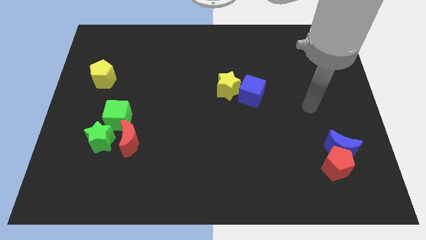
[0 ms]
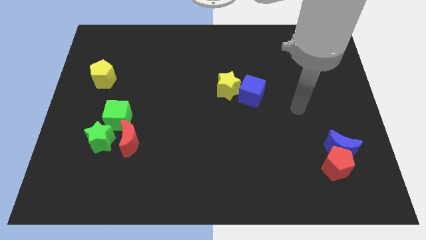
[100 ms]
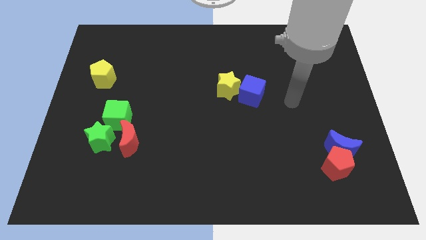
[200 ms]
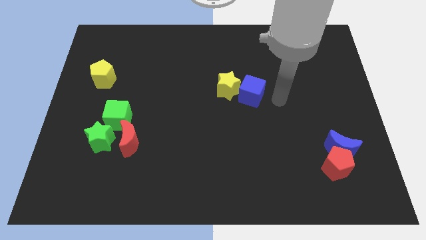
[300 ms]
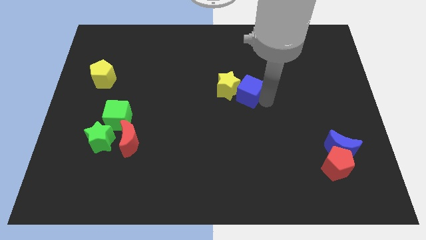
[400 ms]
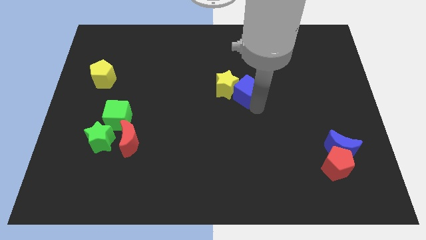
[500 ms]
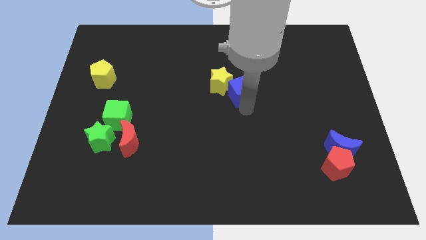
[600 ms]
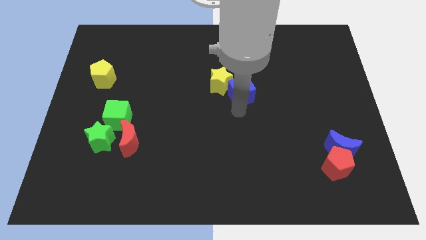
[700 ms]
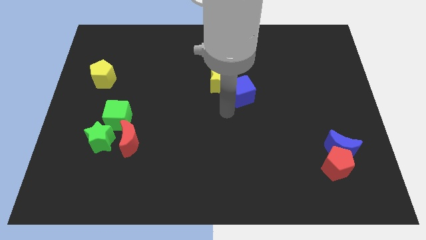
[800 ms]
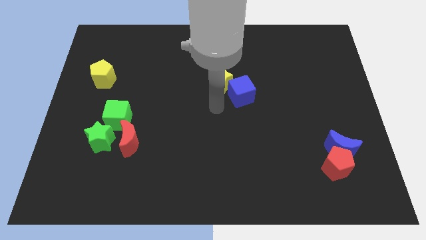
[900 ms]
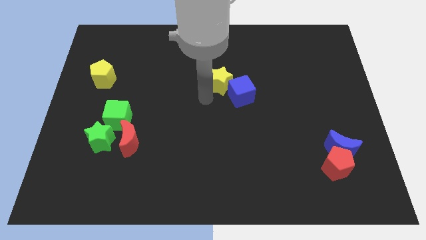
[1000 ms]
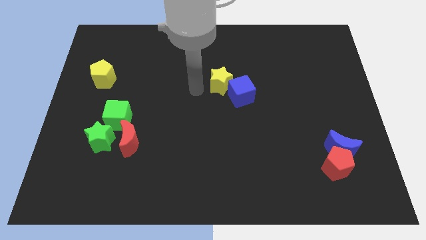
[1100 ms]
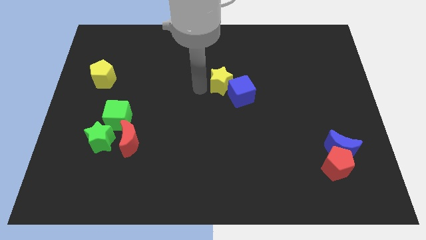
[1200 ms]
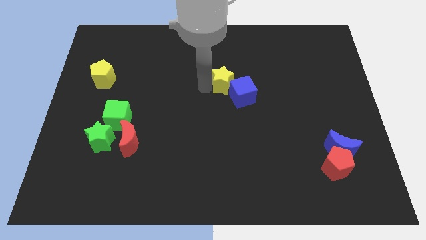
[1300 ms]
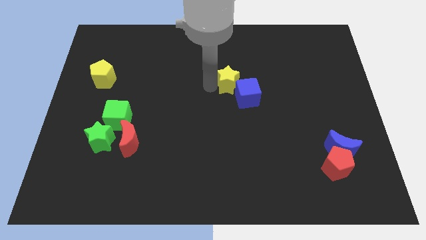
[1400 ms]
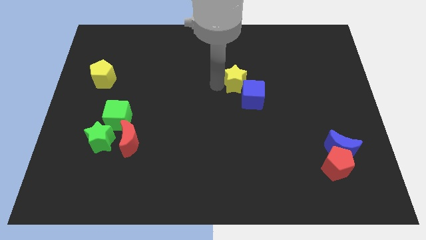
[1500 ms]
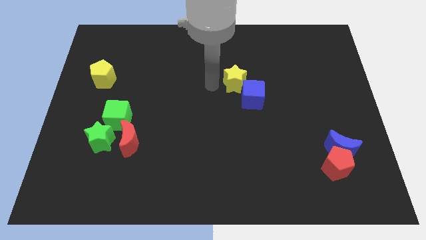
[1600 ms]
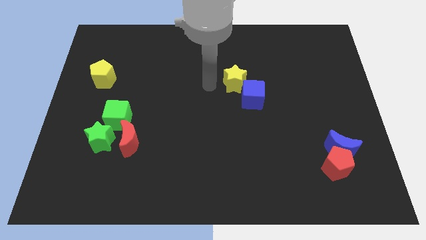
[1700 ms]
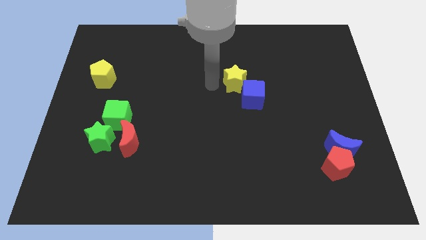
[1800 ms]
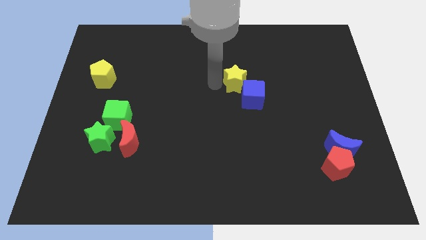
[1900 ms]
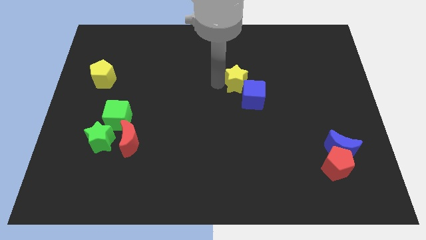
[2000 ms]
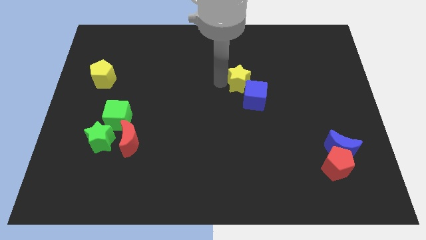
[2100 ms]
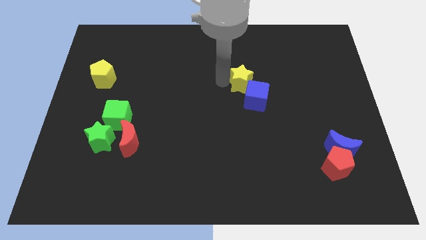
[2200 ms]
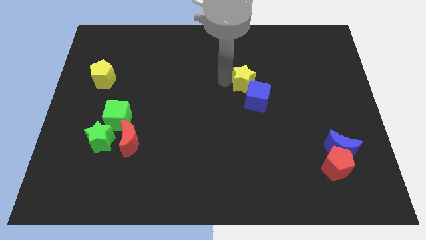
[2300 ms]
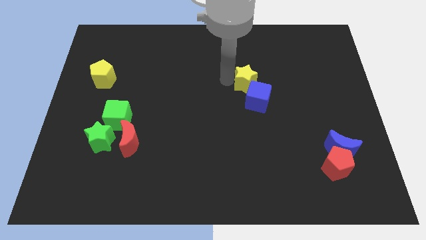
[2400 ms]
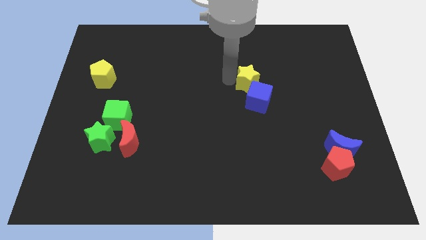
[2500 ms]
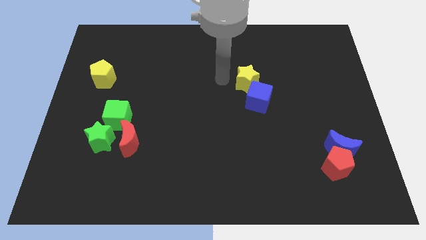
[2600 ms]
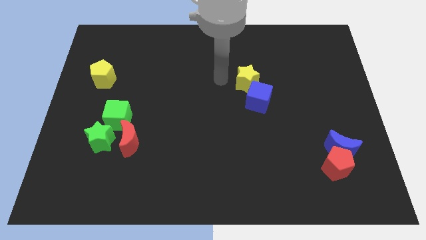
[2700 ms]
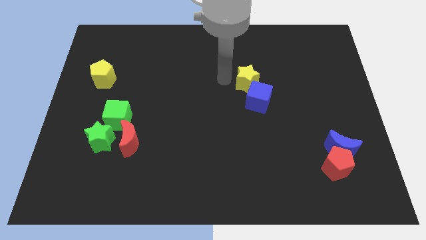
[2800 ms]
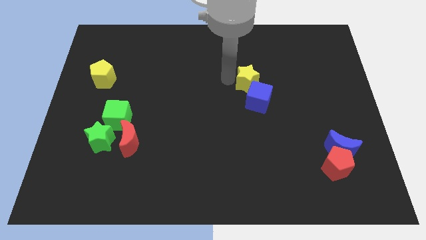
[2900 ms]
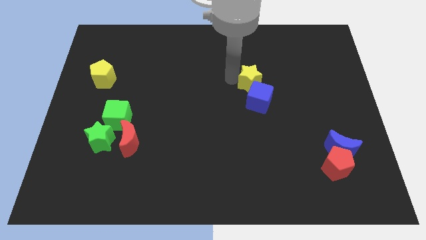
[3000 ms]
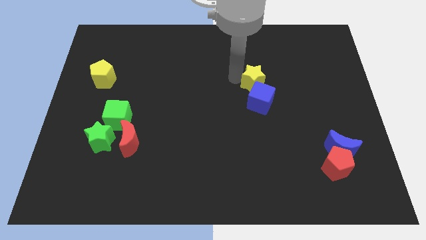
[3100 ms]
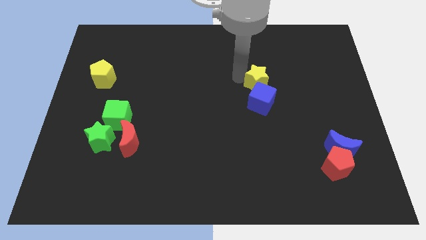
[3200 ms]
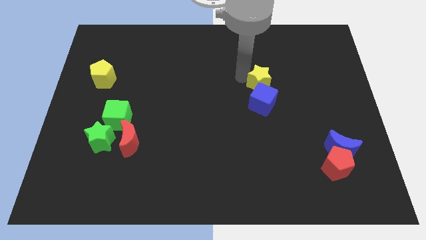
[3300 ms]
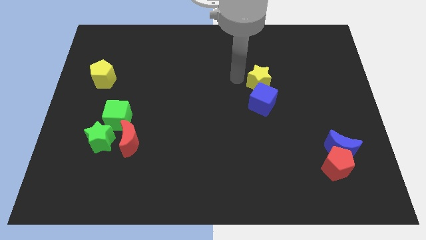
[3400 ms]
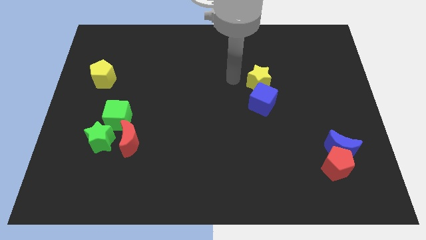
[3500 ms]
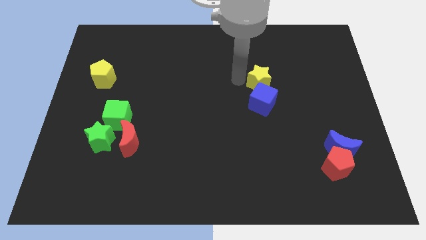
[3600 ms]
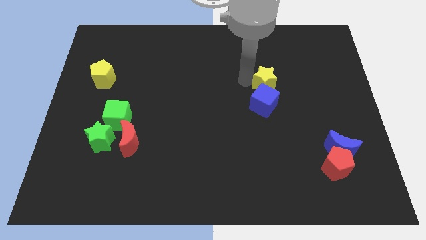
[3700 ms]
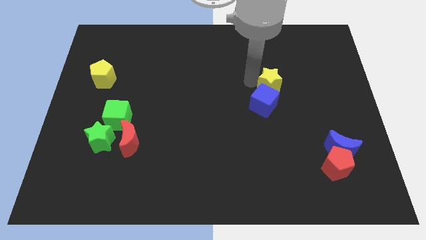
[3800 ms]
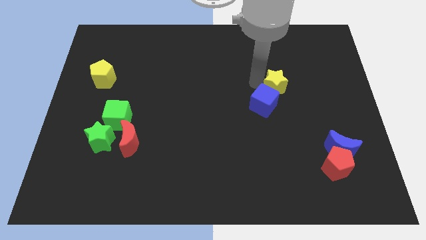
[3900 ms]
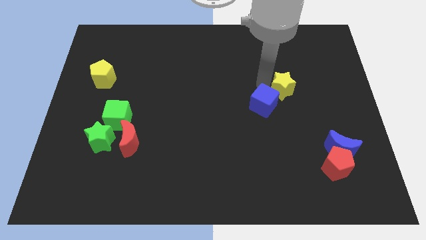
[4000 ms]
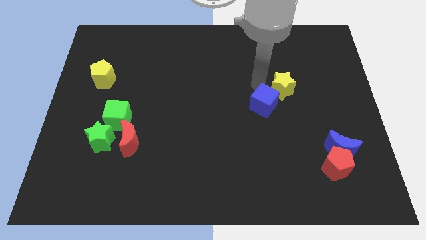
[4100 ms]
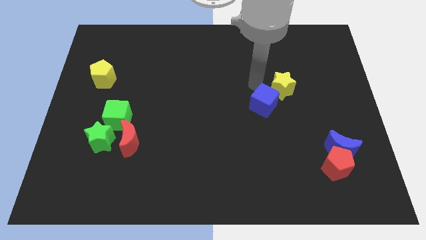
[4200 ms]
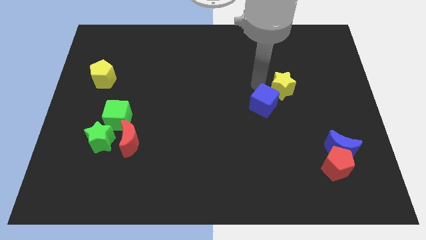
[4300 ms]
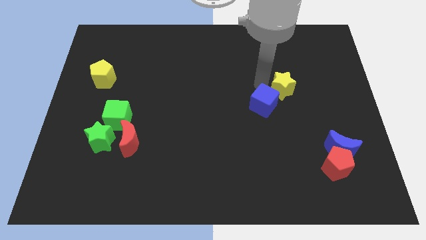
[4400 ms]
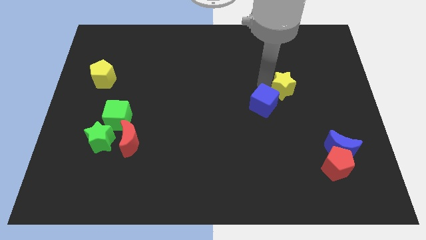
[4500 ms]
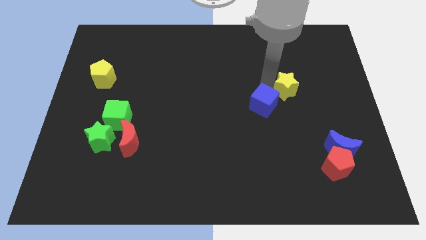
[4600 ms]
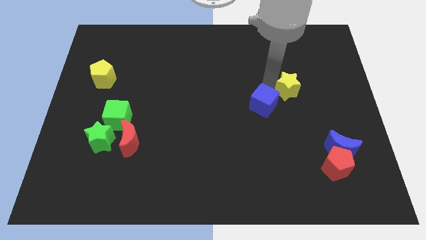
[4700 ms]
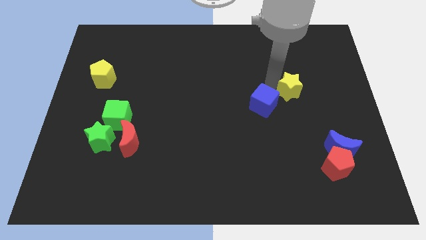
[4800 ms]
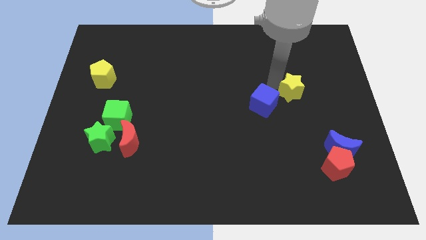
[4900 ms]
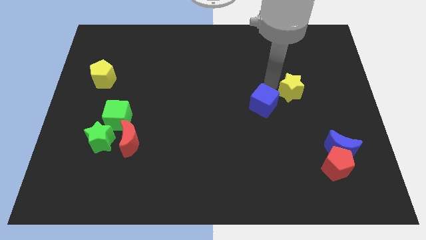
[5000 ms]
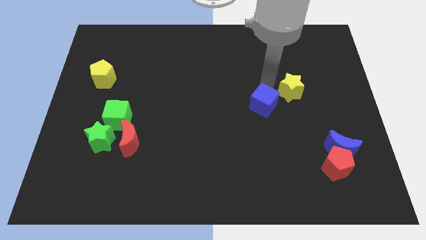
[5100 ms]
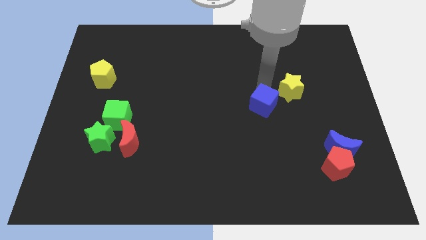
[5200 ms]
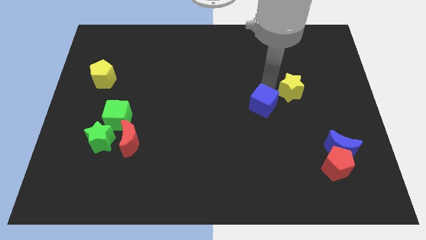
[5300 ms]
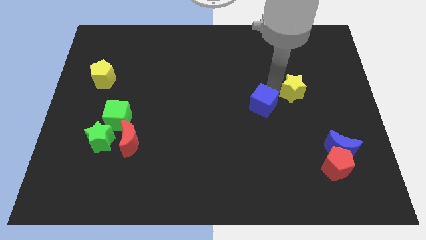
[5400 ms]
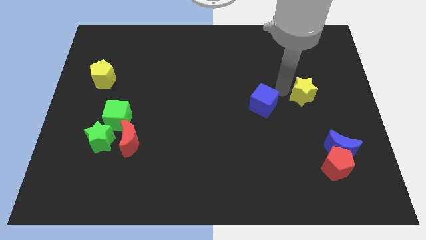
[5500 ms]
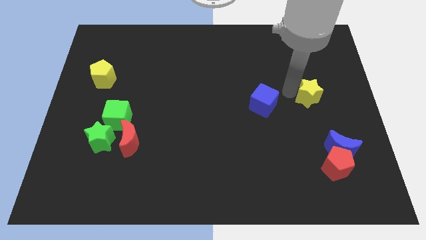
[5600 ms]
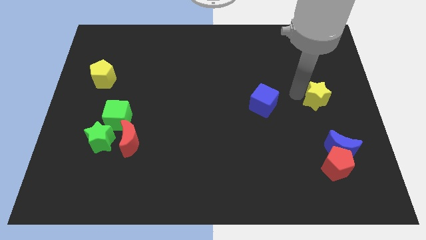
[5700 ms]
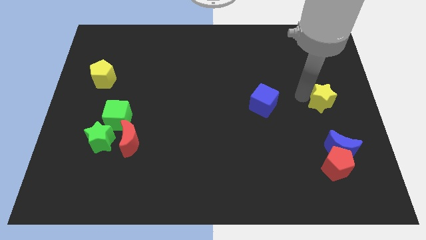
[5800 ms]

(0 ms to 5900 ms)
put the yellow star to the right side of the board
